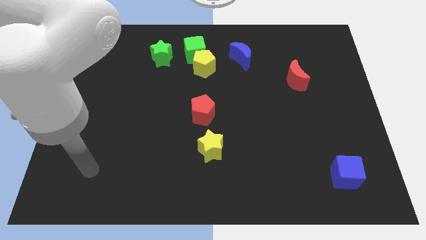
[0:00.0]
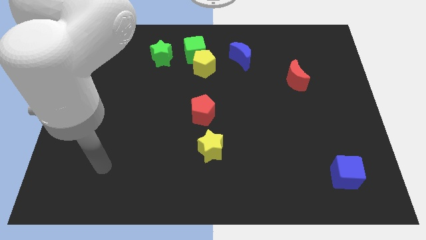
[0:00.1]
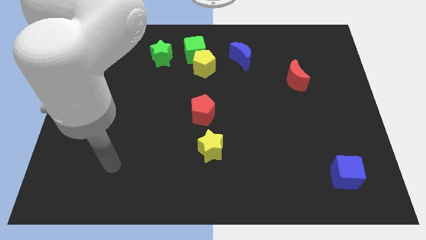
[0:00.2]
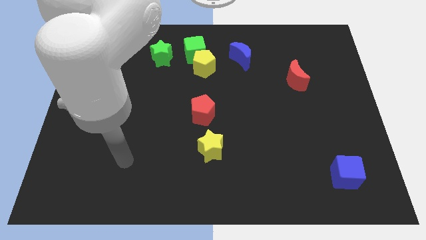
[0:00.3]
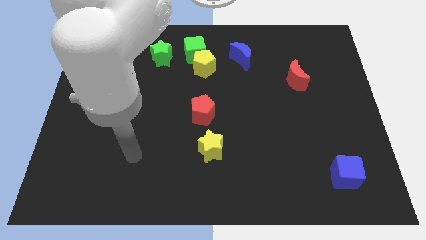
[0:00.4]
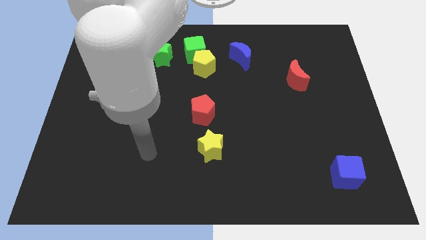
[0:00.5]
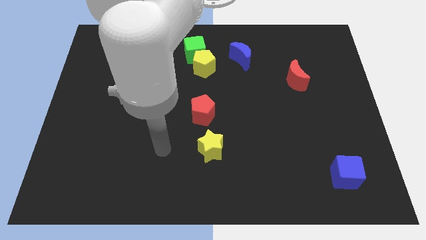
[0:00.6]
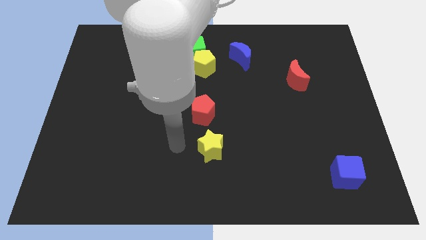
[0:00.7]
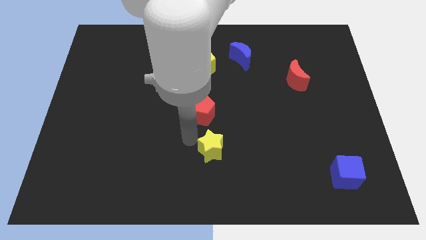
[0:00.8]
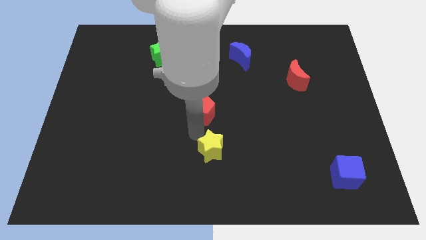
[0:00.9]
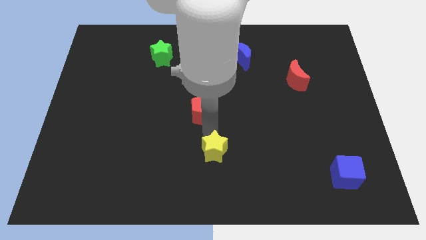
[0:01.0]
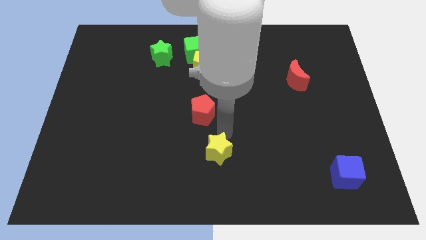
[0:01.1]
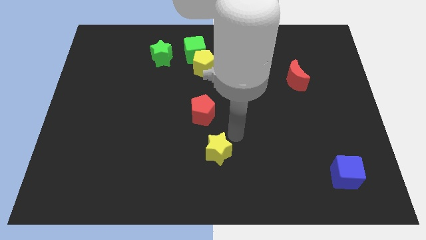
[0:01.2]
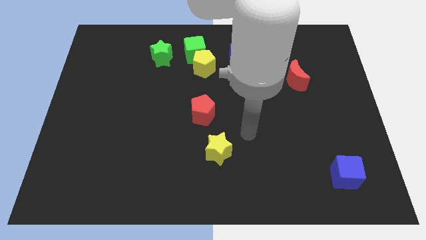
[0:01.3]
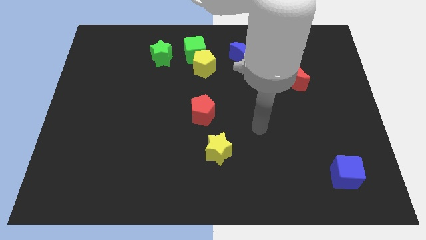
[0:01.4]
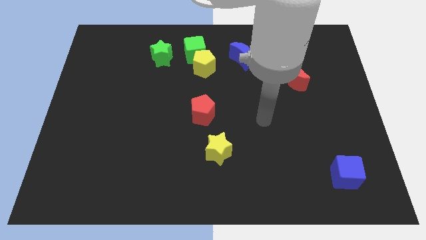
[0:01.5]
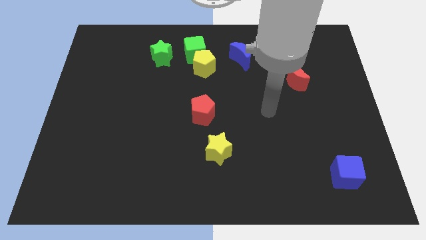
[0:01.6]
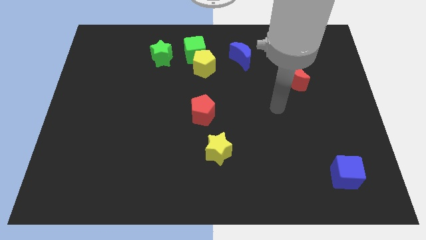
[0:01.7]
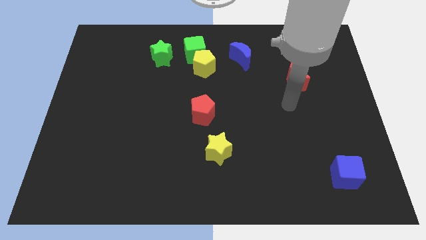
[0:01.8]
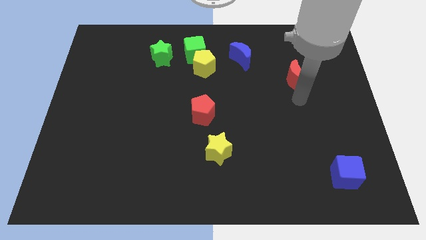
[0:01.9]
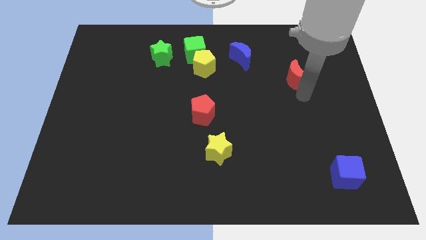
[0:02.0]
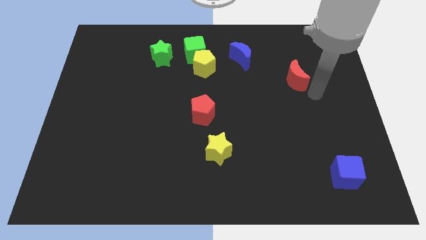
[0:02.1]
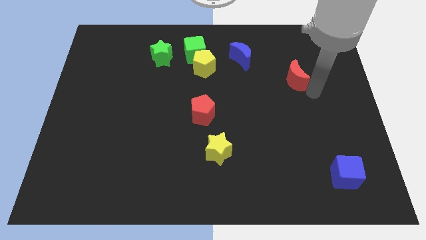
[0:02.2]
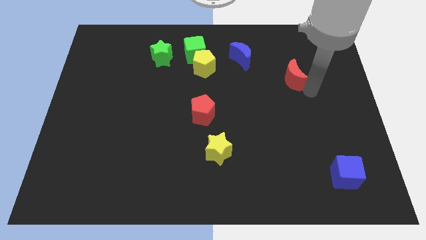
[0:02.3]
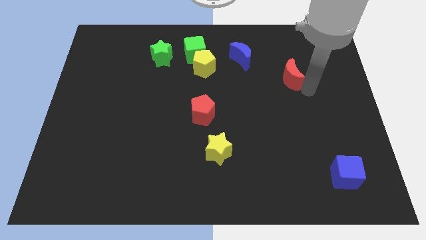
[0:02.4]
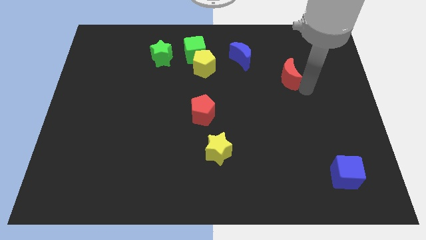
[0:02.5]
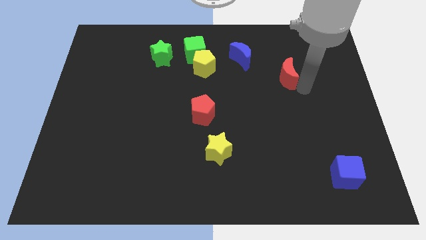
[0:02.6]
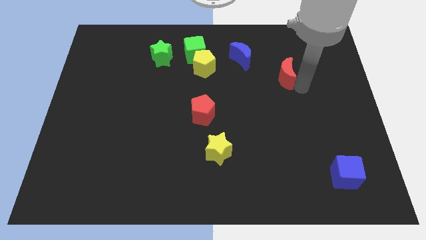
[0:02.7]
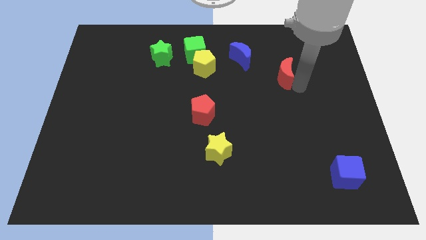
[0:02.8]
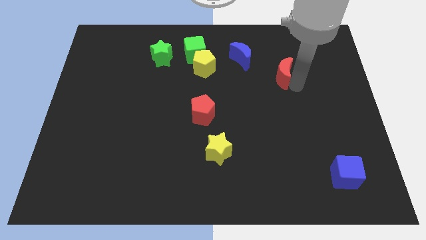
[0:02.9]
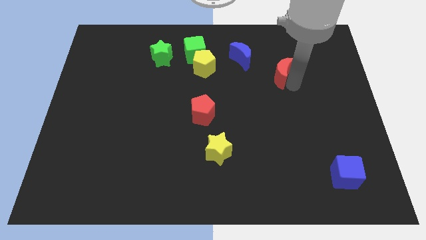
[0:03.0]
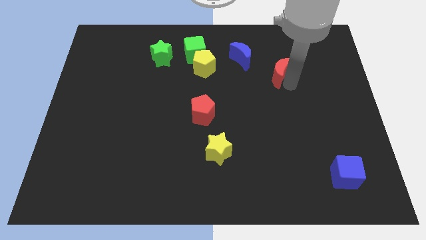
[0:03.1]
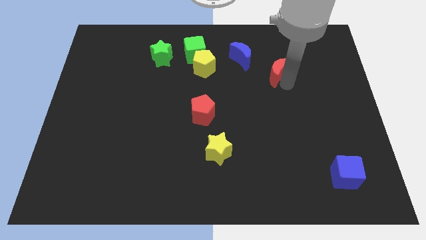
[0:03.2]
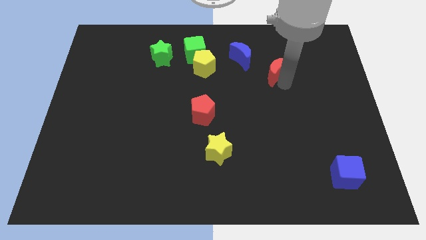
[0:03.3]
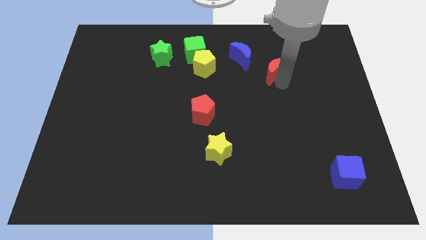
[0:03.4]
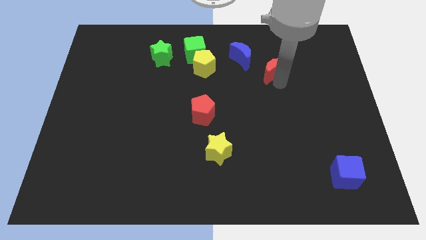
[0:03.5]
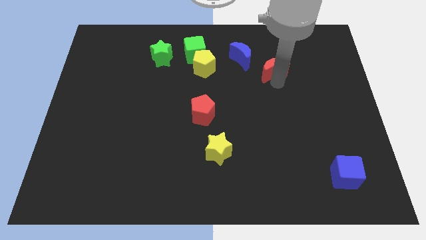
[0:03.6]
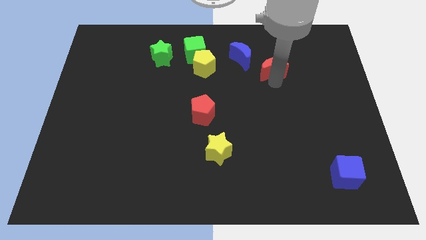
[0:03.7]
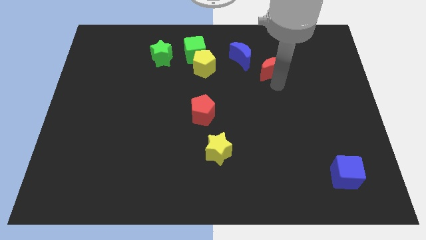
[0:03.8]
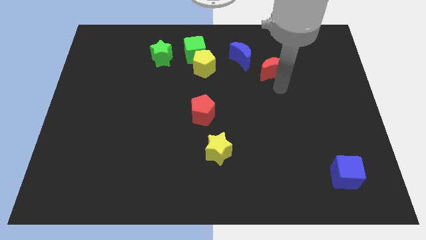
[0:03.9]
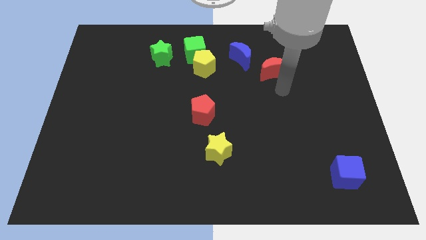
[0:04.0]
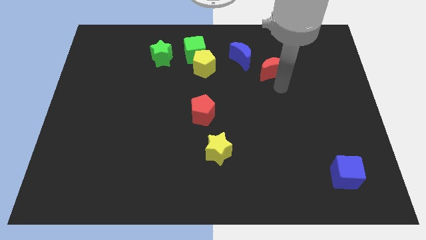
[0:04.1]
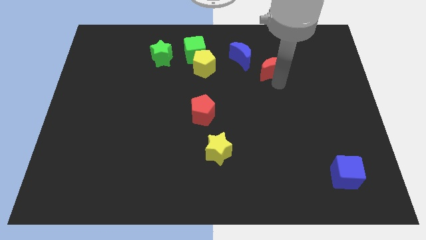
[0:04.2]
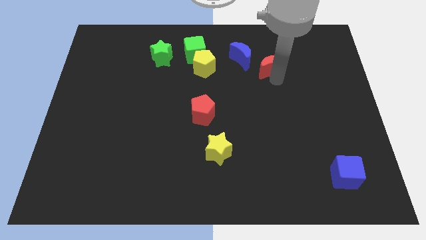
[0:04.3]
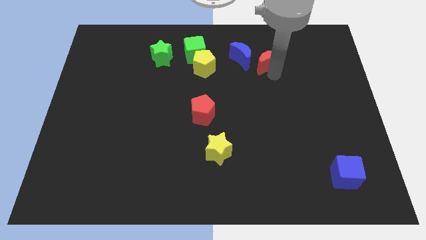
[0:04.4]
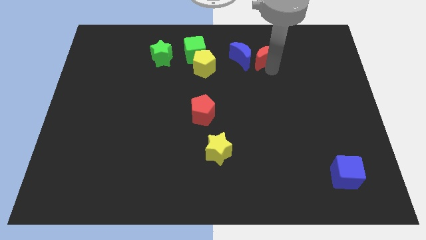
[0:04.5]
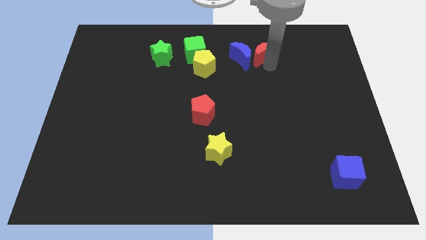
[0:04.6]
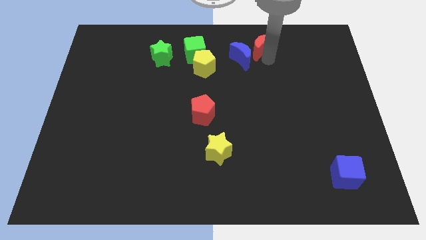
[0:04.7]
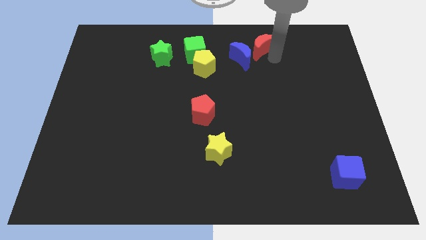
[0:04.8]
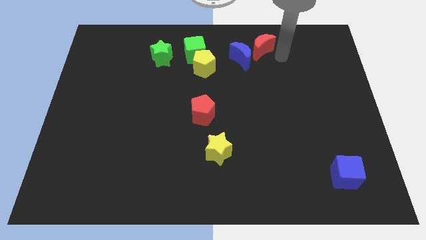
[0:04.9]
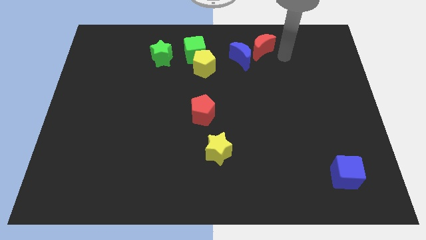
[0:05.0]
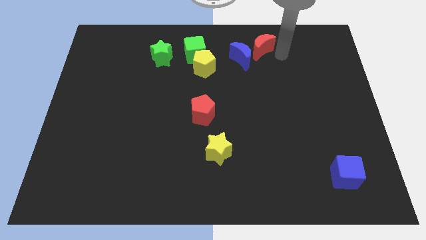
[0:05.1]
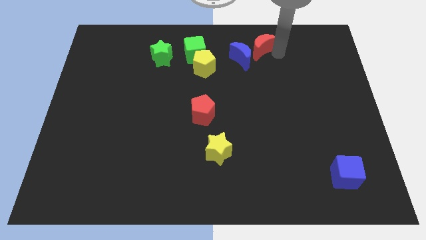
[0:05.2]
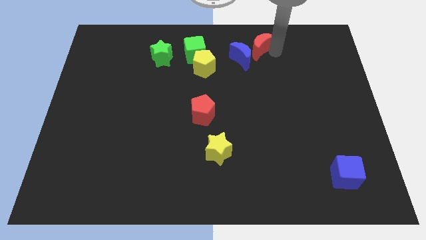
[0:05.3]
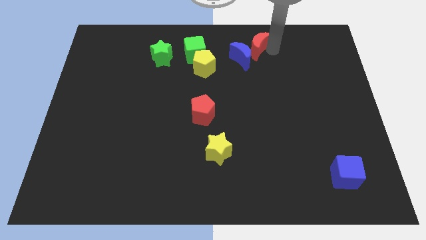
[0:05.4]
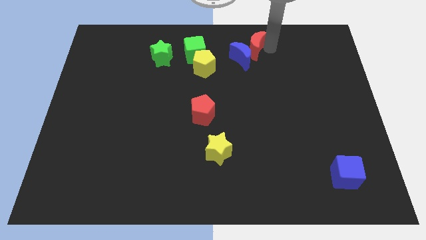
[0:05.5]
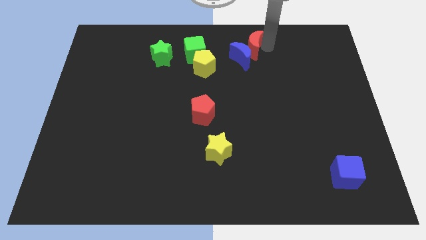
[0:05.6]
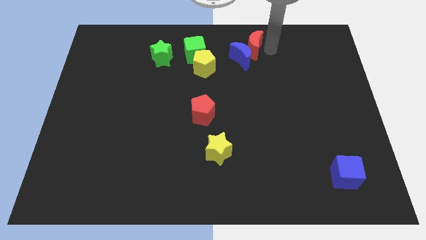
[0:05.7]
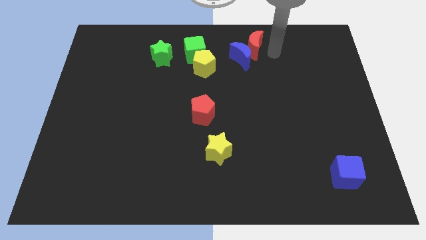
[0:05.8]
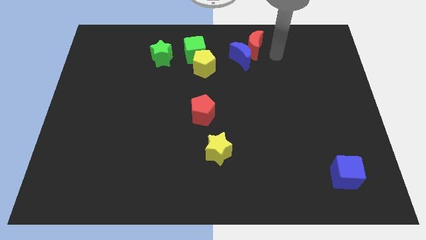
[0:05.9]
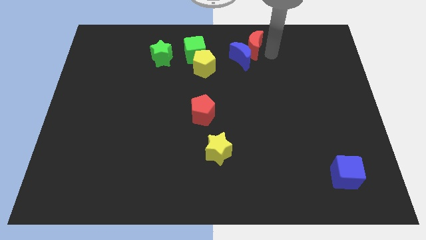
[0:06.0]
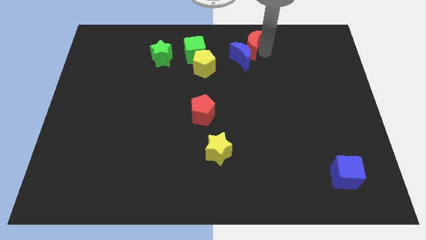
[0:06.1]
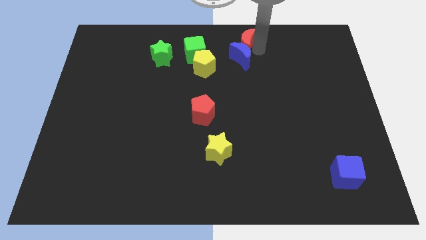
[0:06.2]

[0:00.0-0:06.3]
slide the red moon to the top side
